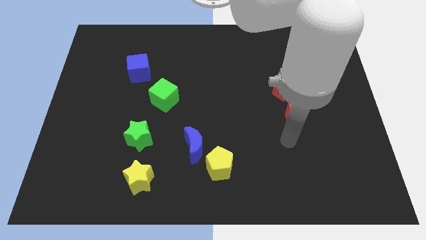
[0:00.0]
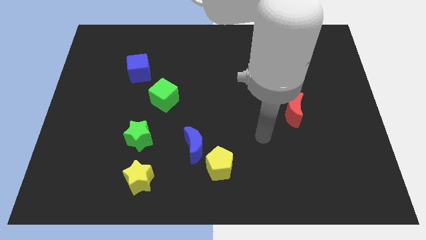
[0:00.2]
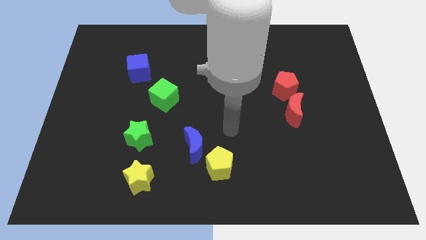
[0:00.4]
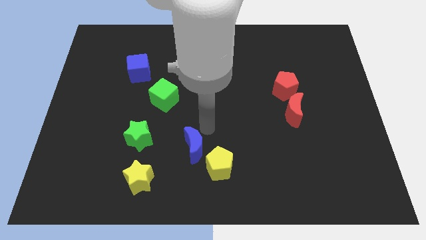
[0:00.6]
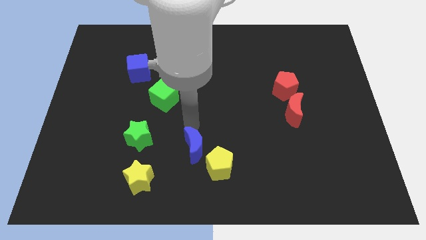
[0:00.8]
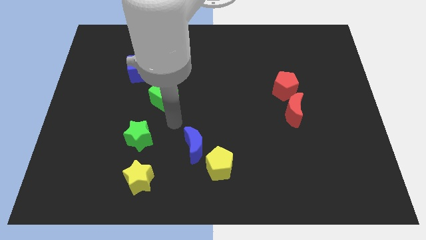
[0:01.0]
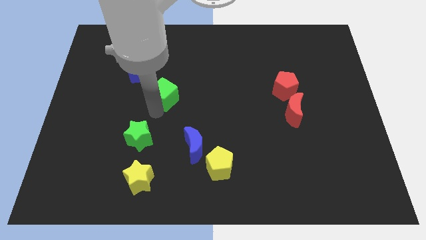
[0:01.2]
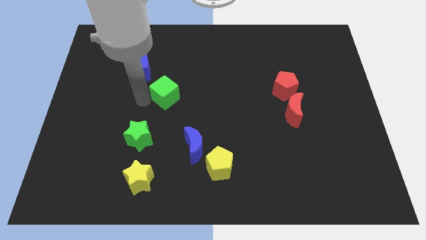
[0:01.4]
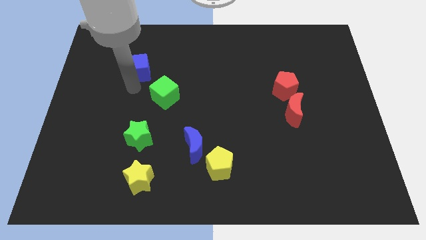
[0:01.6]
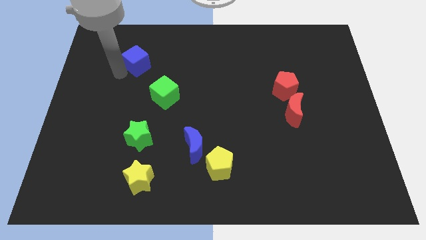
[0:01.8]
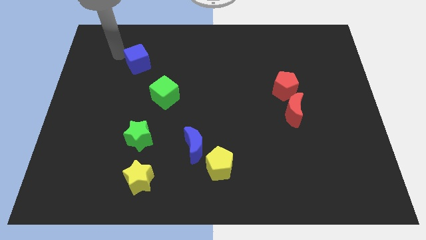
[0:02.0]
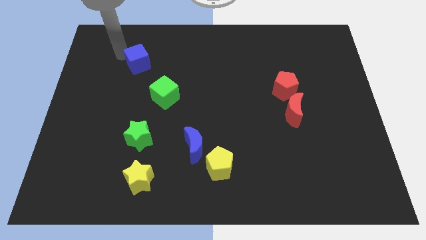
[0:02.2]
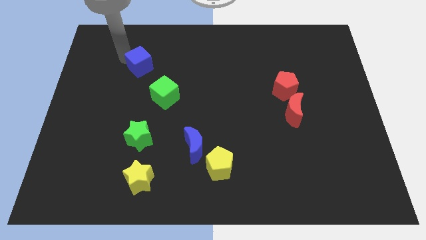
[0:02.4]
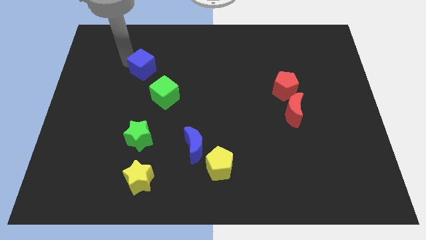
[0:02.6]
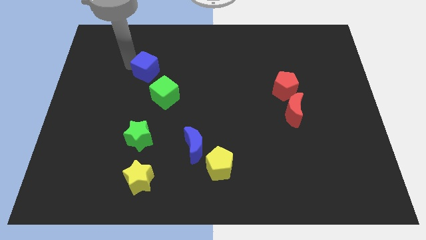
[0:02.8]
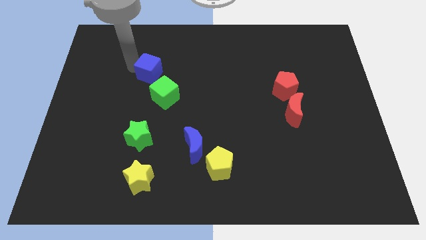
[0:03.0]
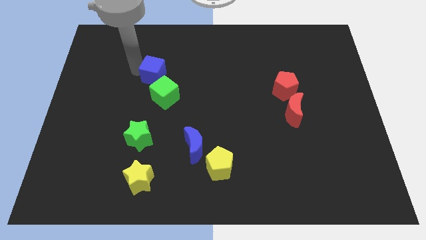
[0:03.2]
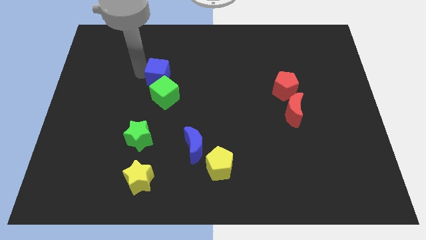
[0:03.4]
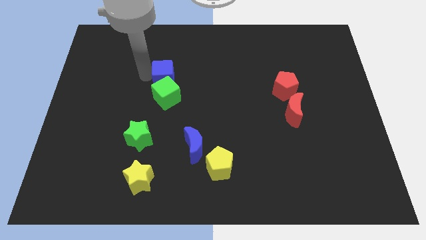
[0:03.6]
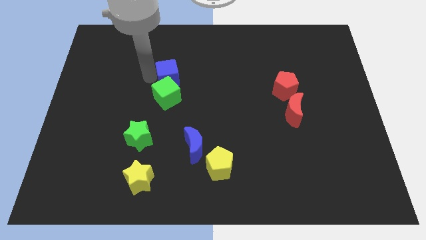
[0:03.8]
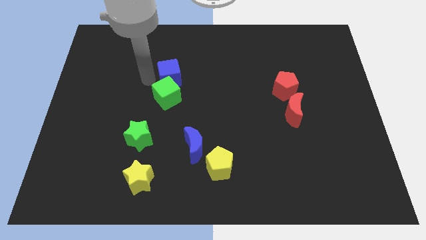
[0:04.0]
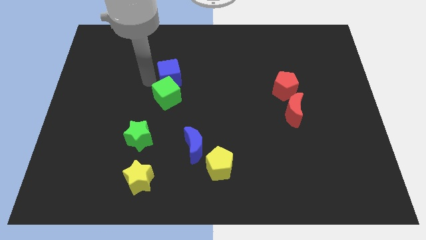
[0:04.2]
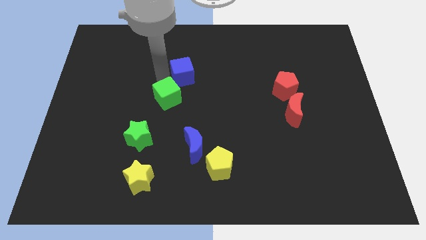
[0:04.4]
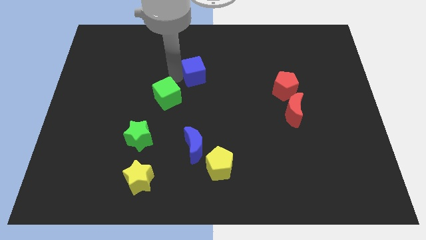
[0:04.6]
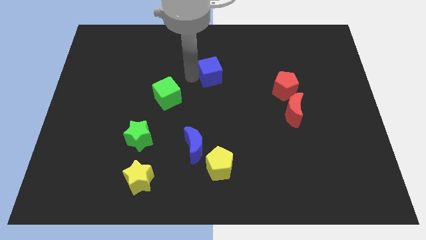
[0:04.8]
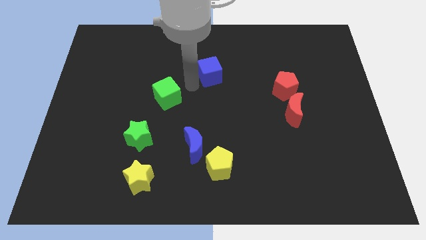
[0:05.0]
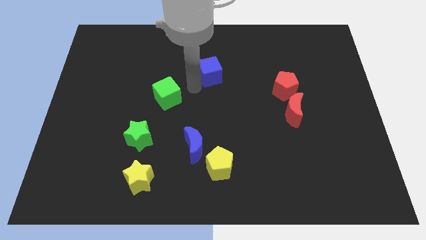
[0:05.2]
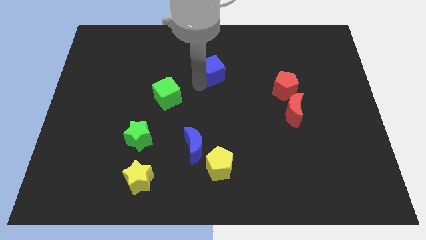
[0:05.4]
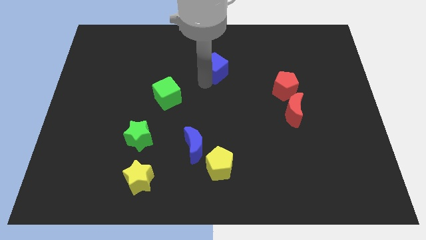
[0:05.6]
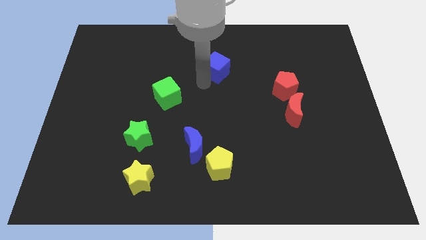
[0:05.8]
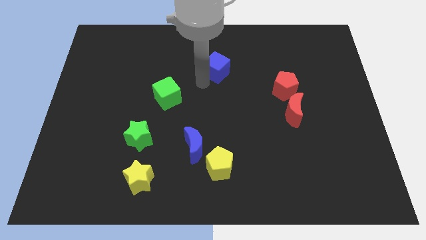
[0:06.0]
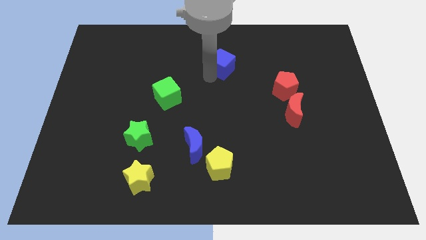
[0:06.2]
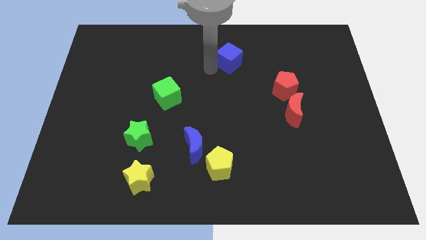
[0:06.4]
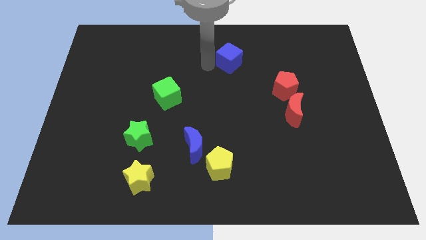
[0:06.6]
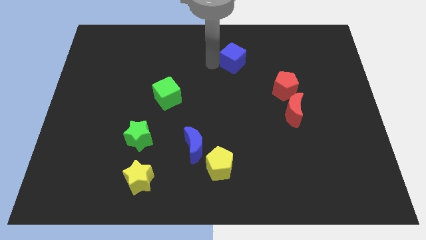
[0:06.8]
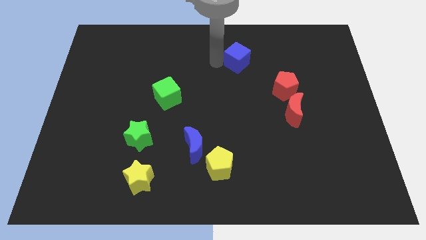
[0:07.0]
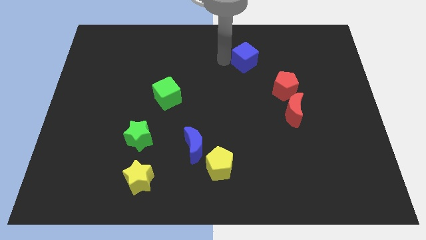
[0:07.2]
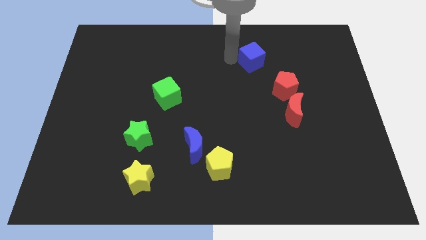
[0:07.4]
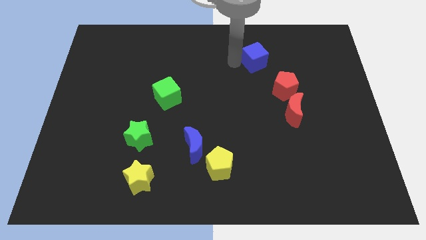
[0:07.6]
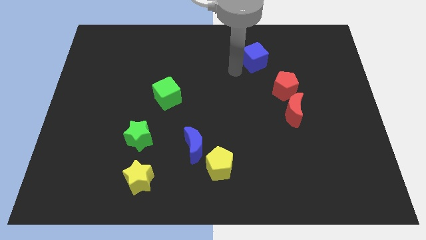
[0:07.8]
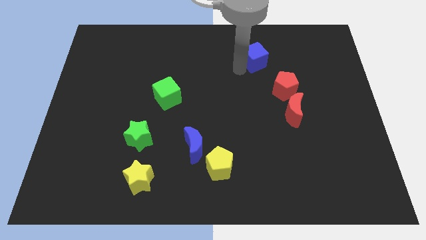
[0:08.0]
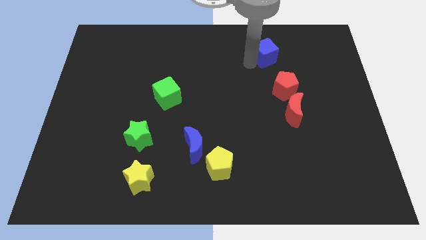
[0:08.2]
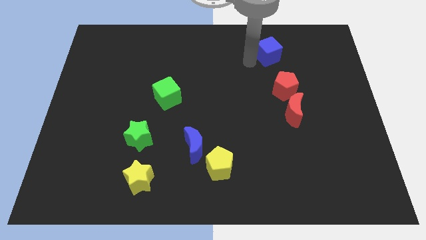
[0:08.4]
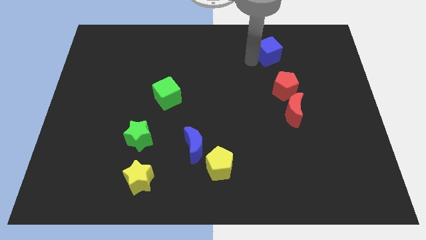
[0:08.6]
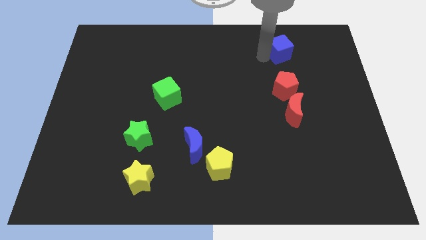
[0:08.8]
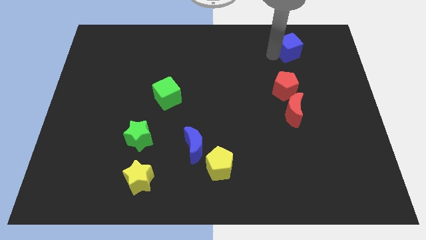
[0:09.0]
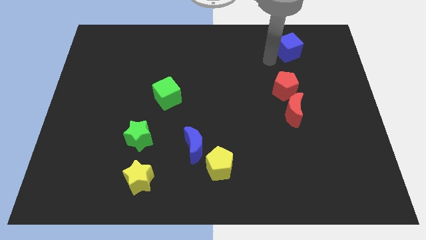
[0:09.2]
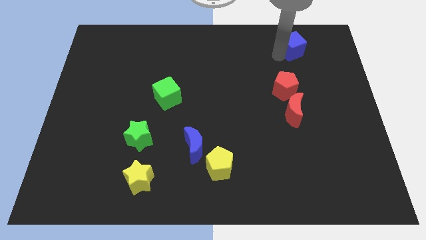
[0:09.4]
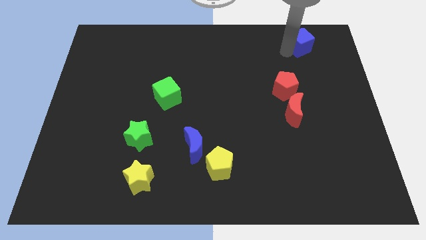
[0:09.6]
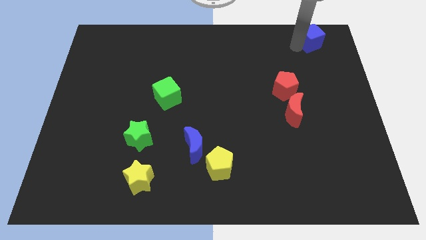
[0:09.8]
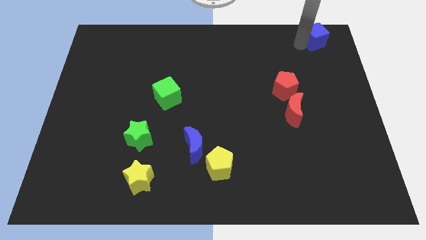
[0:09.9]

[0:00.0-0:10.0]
slide the blue cube to the upper right corner

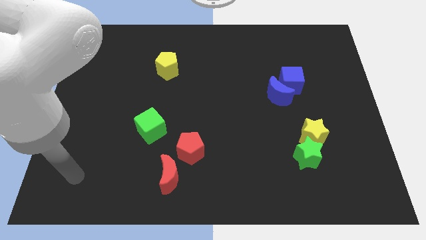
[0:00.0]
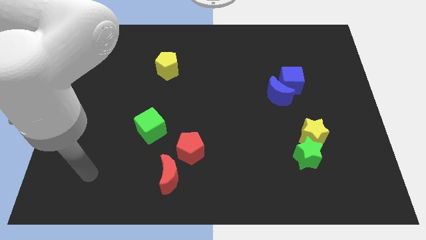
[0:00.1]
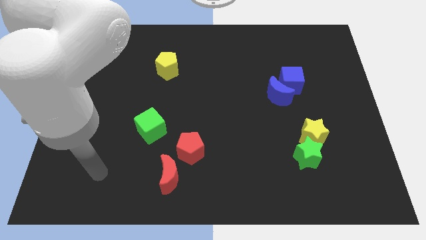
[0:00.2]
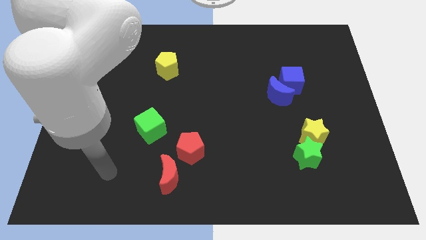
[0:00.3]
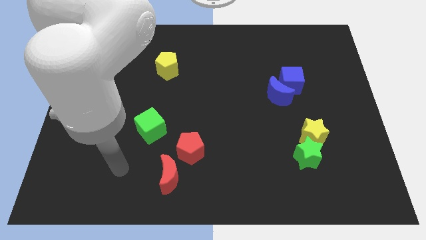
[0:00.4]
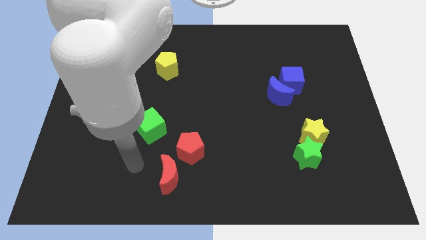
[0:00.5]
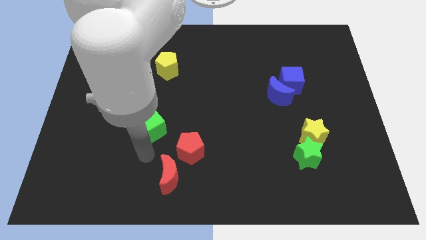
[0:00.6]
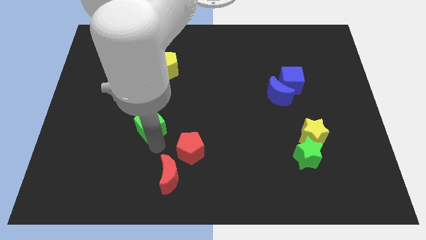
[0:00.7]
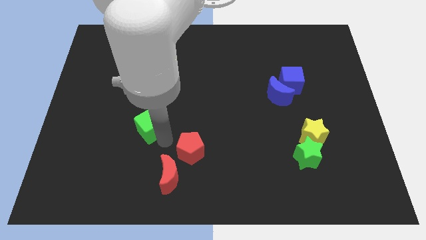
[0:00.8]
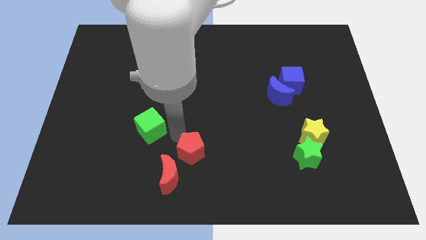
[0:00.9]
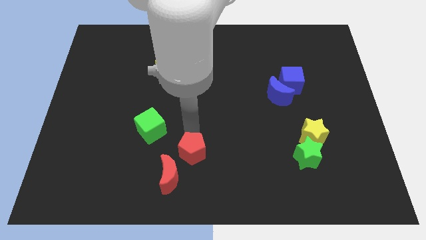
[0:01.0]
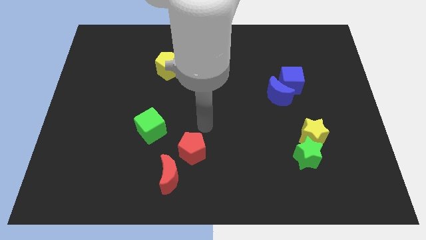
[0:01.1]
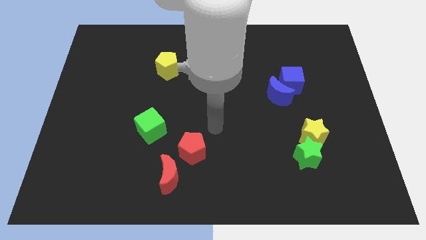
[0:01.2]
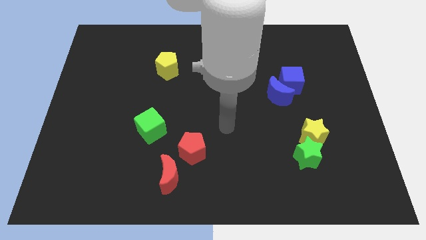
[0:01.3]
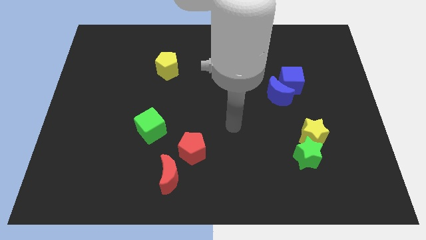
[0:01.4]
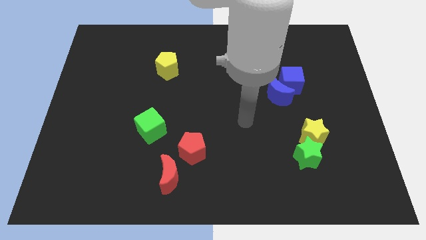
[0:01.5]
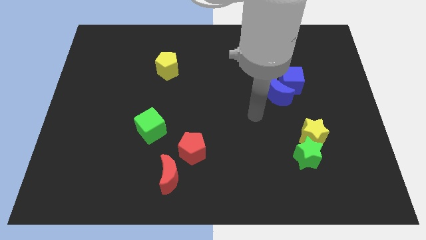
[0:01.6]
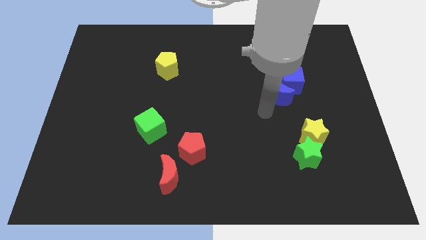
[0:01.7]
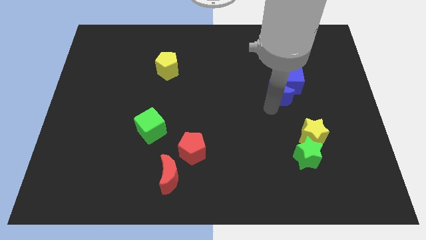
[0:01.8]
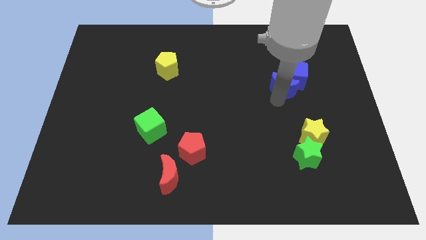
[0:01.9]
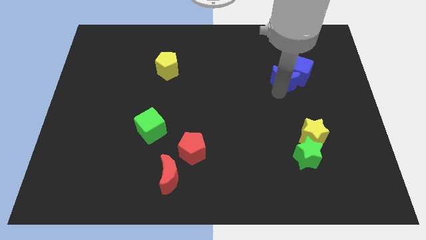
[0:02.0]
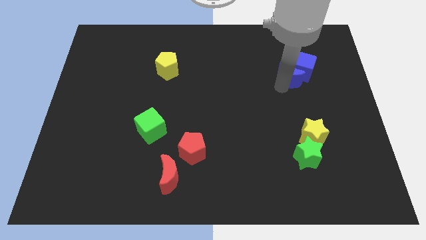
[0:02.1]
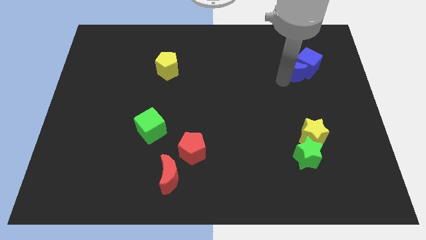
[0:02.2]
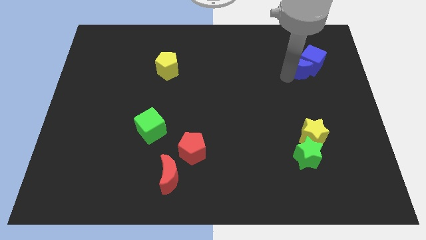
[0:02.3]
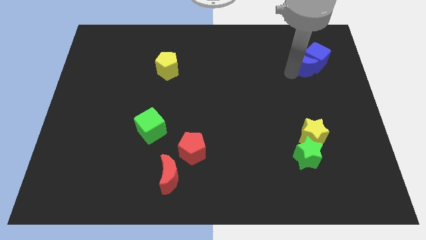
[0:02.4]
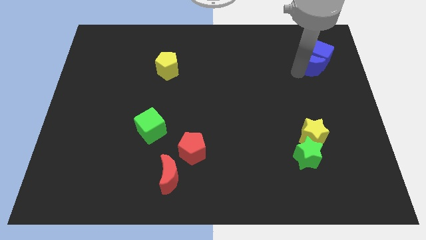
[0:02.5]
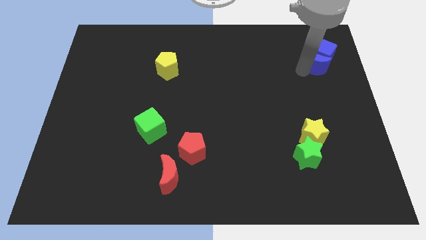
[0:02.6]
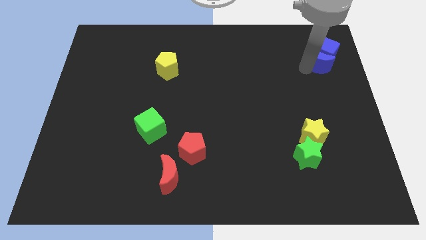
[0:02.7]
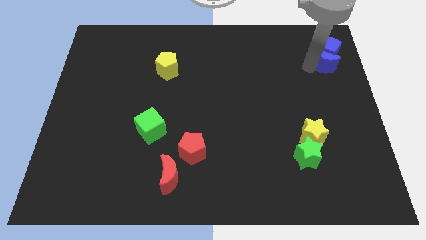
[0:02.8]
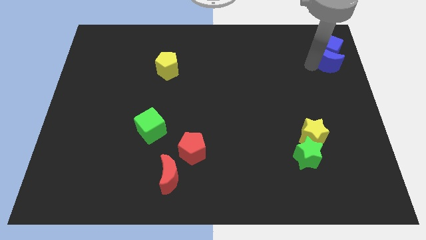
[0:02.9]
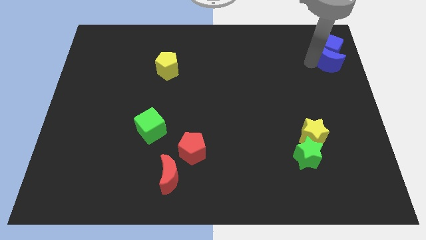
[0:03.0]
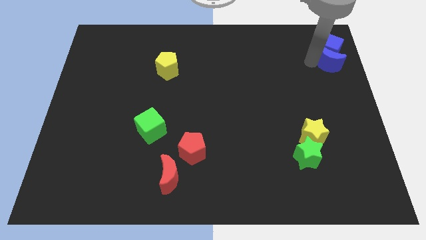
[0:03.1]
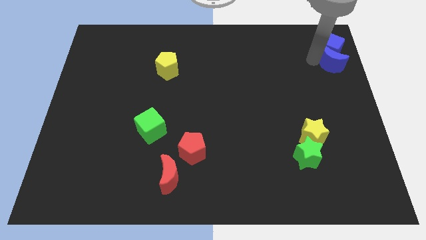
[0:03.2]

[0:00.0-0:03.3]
push the blue cube to the upper right corner
